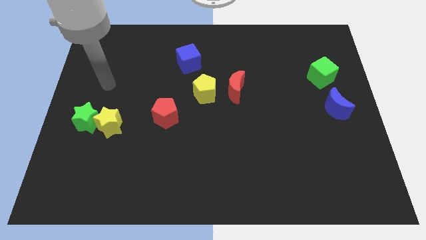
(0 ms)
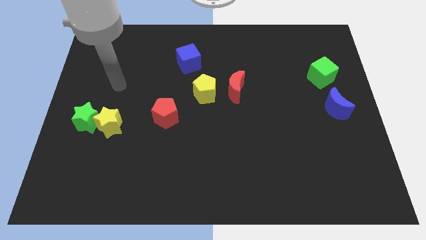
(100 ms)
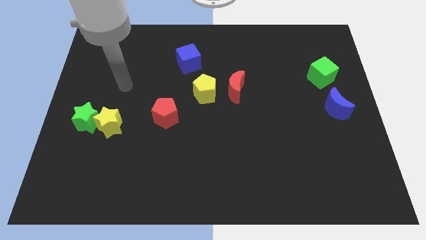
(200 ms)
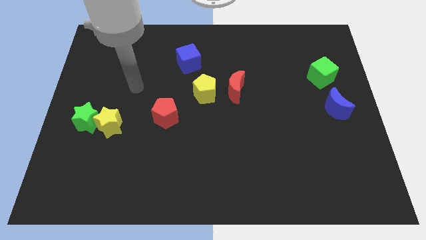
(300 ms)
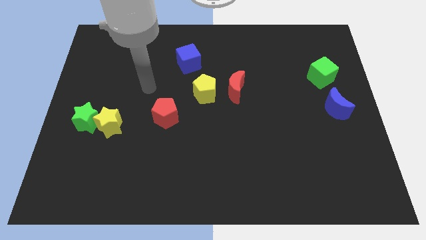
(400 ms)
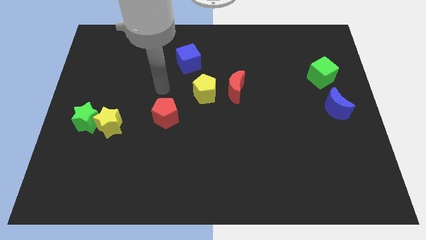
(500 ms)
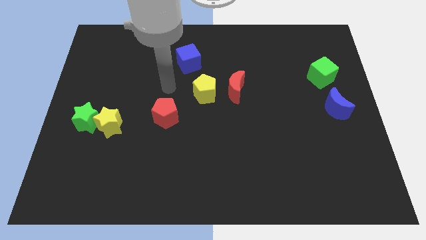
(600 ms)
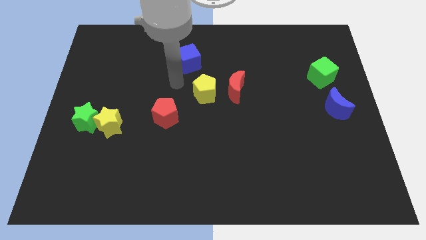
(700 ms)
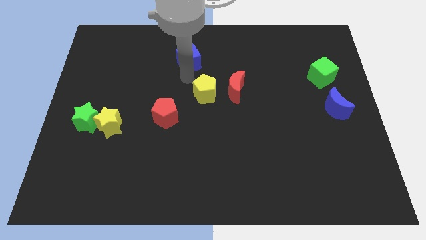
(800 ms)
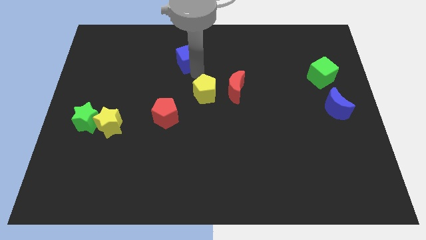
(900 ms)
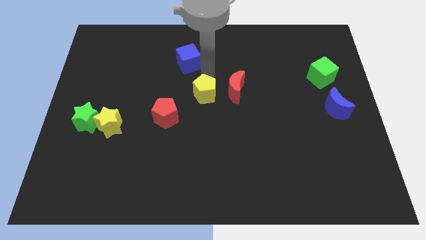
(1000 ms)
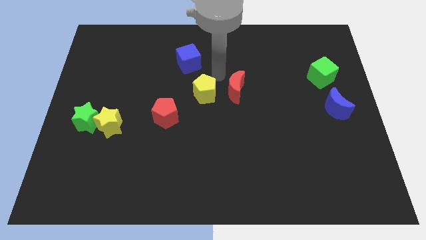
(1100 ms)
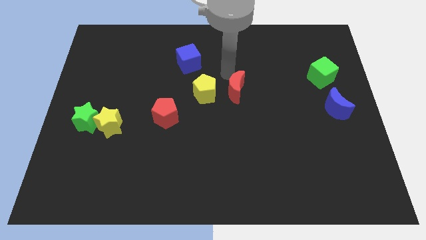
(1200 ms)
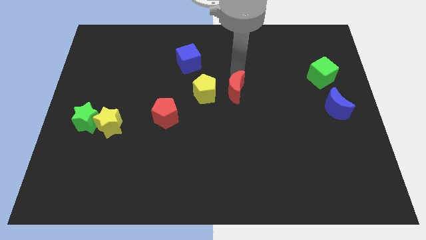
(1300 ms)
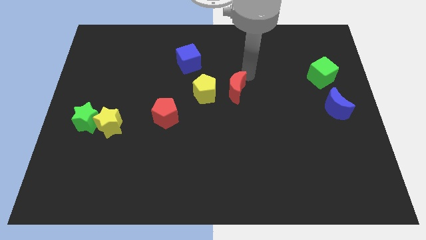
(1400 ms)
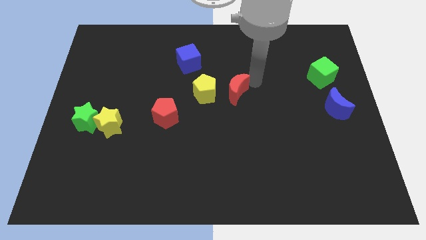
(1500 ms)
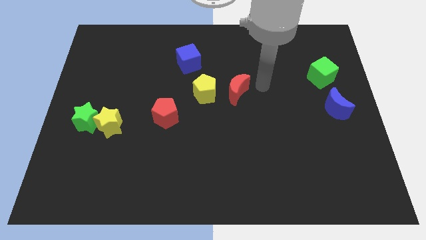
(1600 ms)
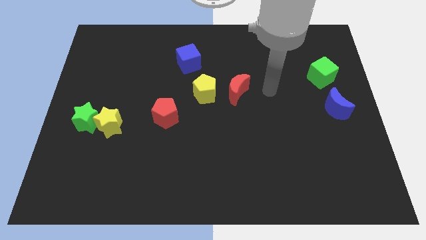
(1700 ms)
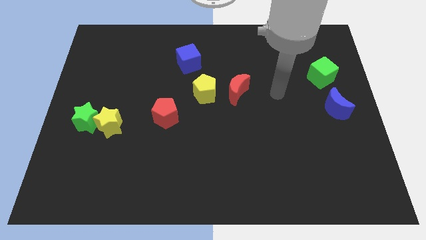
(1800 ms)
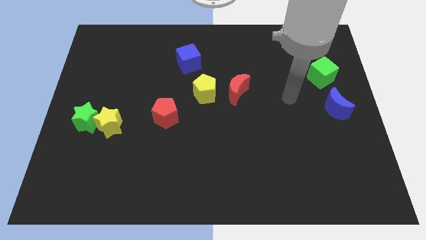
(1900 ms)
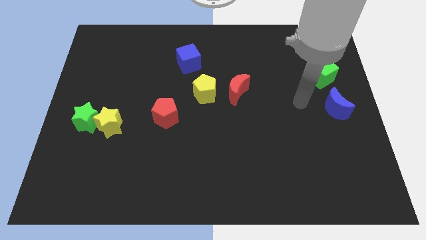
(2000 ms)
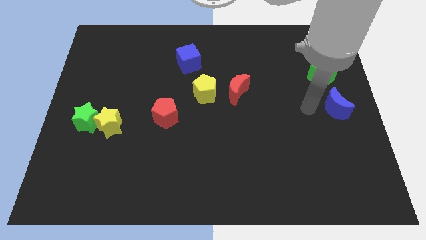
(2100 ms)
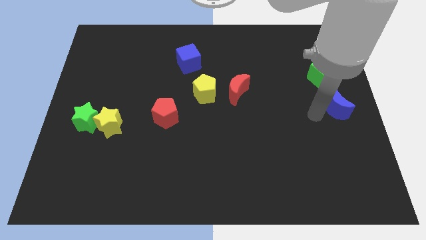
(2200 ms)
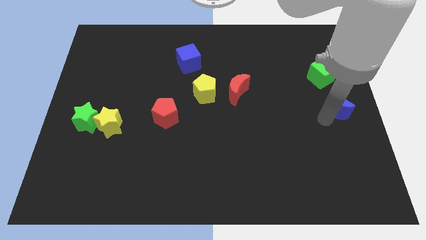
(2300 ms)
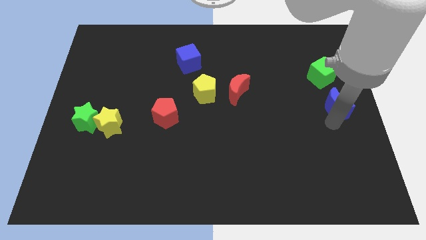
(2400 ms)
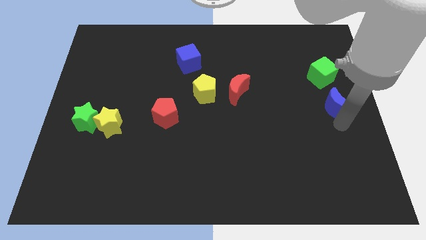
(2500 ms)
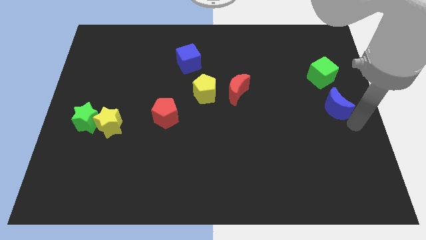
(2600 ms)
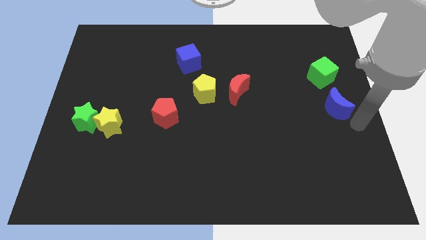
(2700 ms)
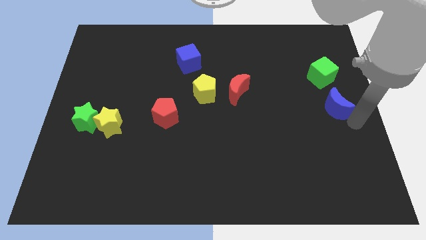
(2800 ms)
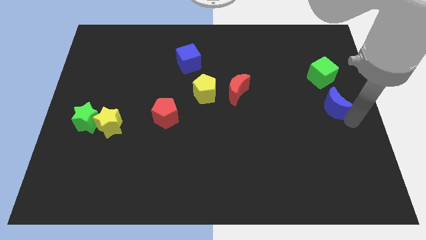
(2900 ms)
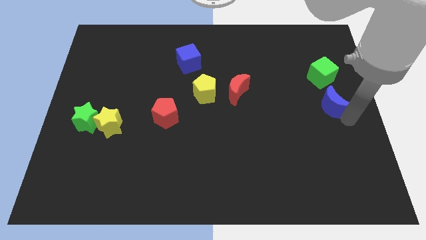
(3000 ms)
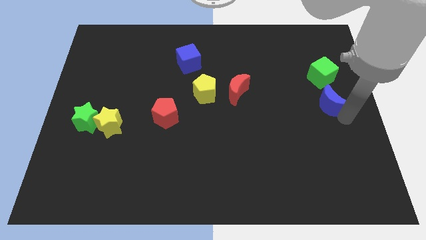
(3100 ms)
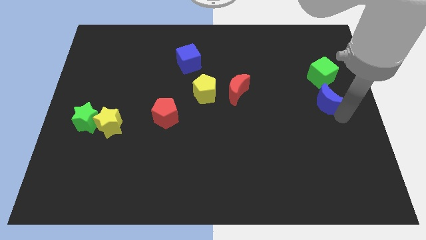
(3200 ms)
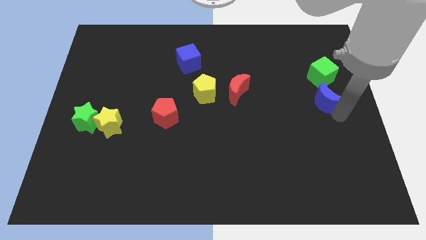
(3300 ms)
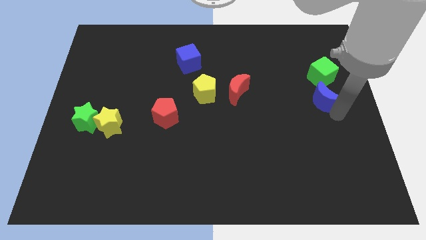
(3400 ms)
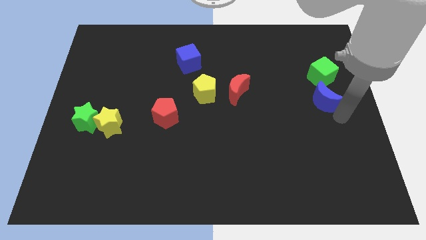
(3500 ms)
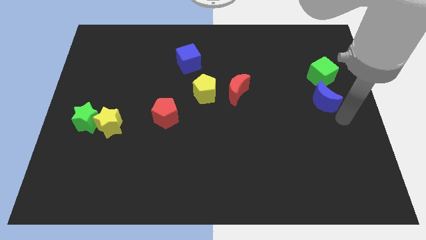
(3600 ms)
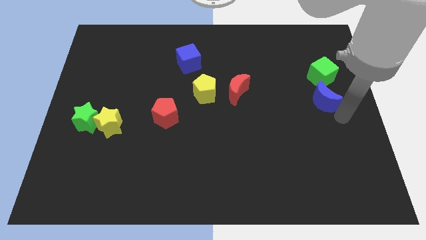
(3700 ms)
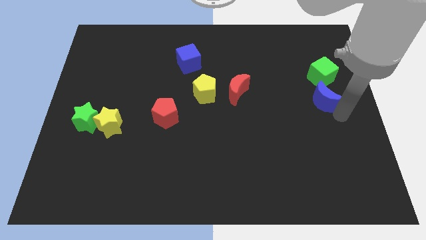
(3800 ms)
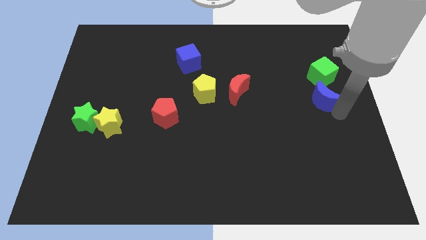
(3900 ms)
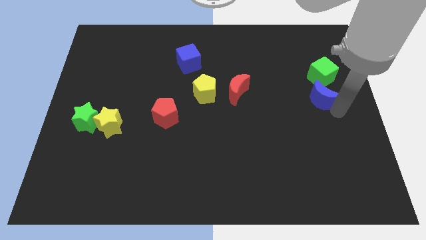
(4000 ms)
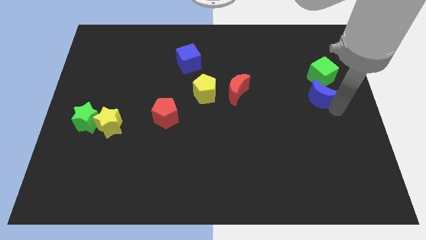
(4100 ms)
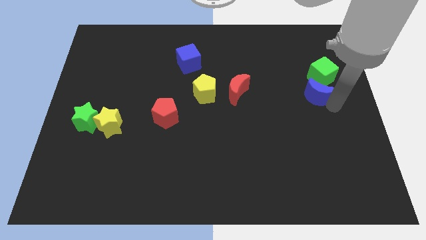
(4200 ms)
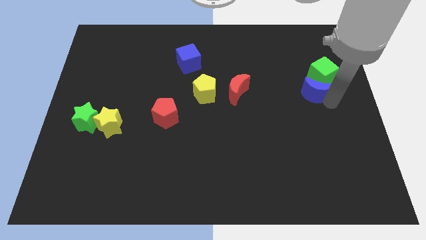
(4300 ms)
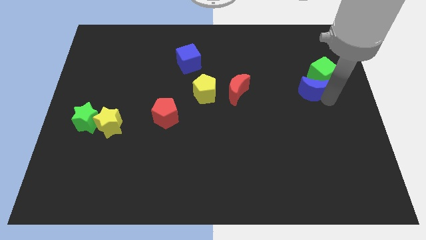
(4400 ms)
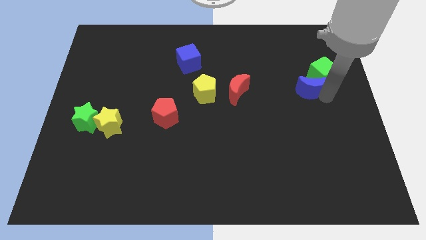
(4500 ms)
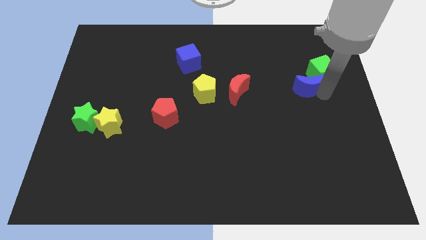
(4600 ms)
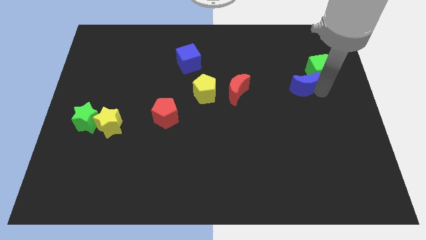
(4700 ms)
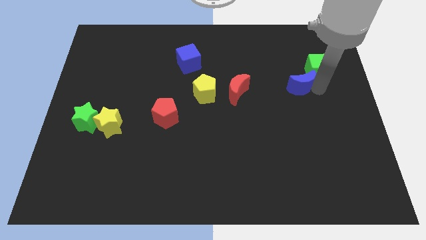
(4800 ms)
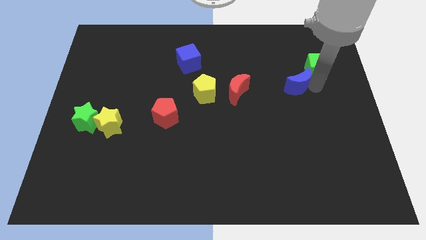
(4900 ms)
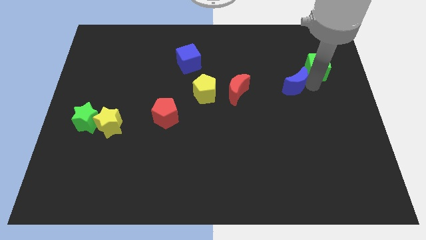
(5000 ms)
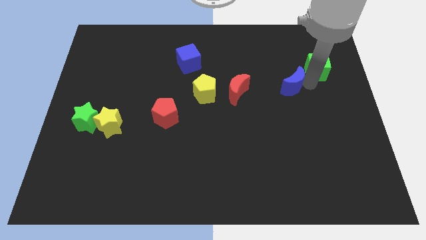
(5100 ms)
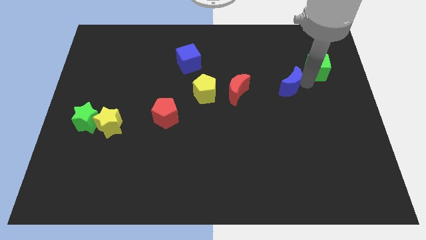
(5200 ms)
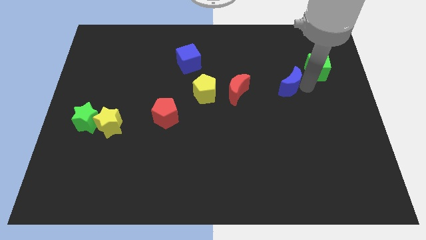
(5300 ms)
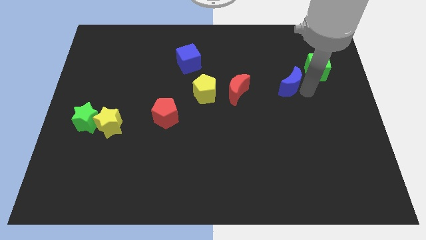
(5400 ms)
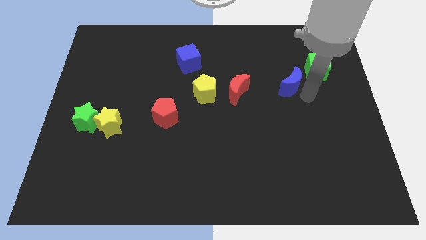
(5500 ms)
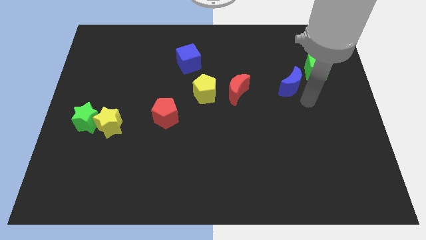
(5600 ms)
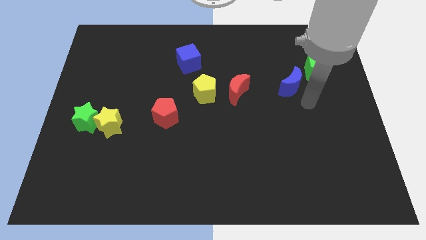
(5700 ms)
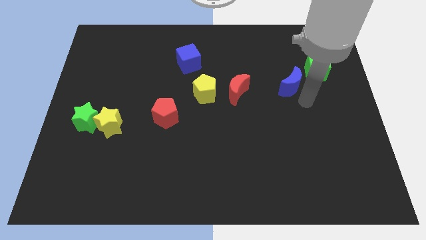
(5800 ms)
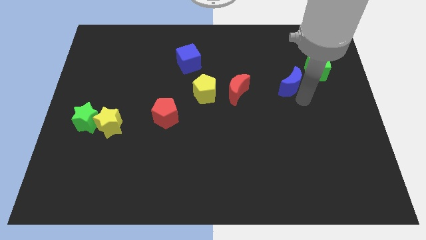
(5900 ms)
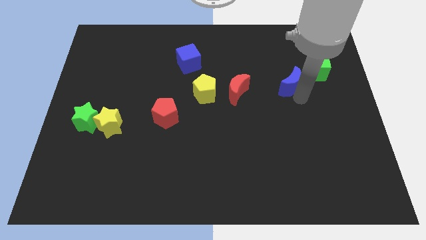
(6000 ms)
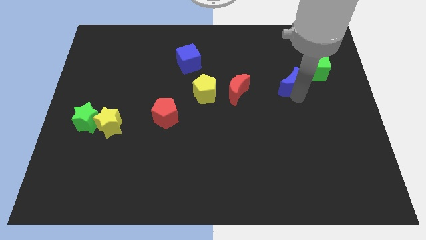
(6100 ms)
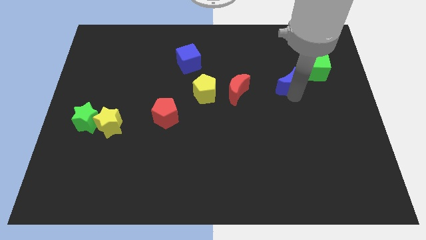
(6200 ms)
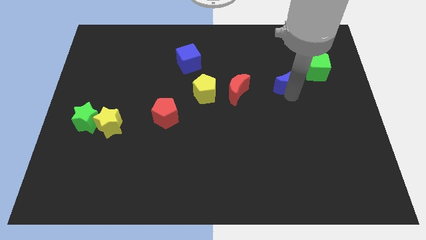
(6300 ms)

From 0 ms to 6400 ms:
put the blue moon to the left of the green cube
